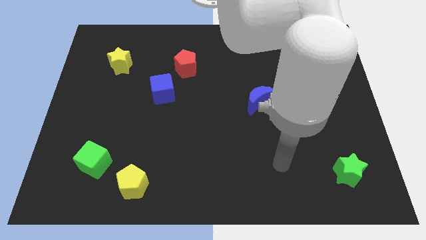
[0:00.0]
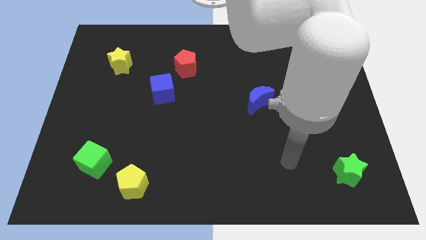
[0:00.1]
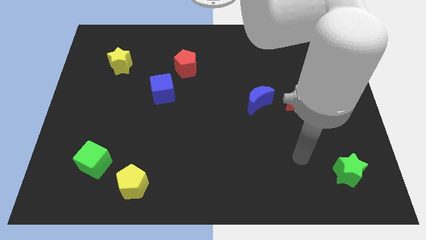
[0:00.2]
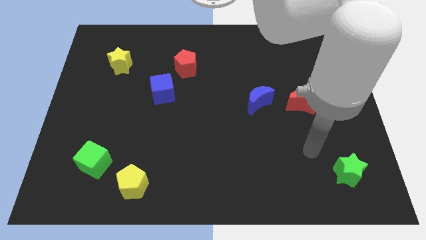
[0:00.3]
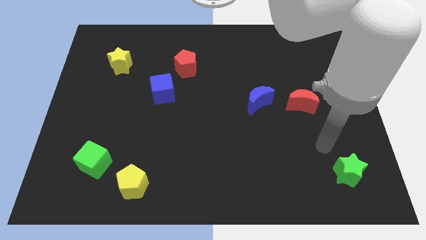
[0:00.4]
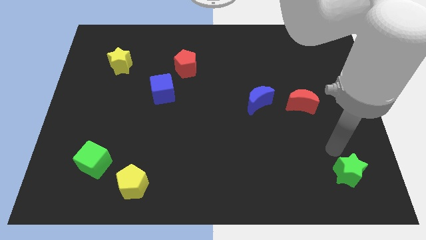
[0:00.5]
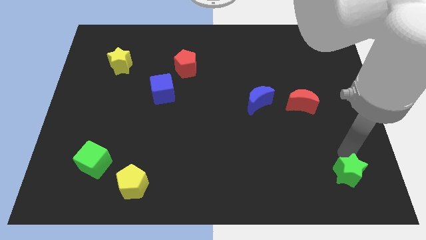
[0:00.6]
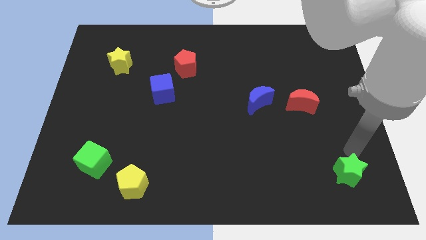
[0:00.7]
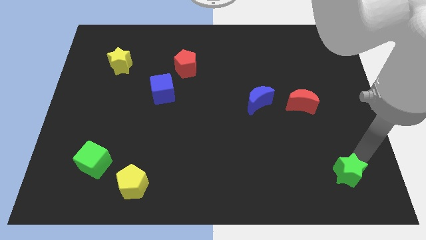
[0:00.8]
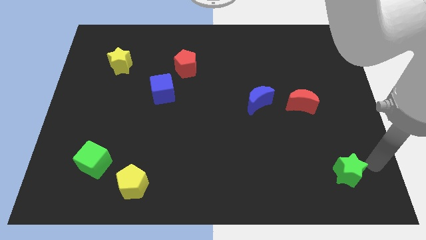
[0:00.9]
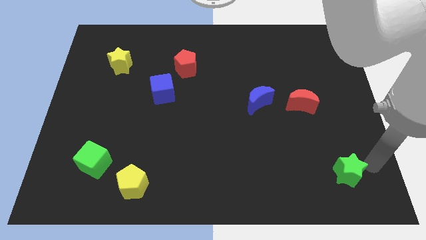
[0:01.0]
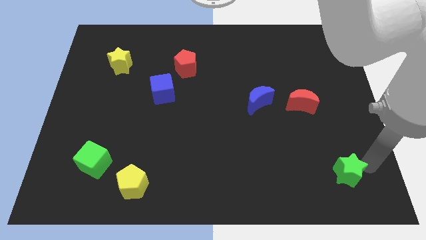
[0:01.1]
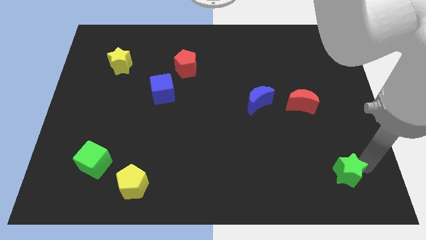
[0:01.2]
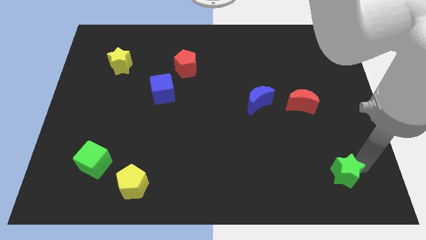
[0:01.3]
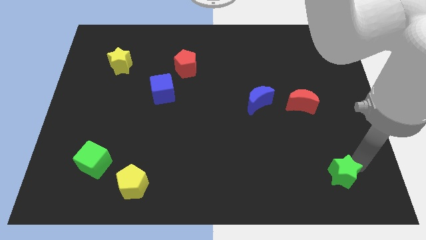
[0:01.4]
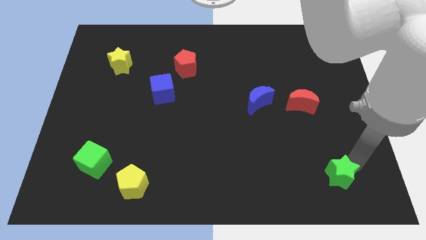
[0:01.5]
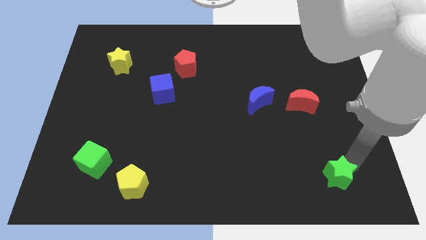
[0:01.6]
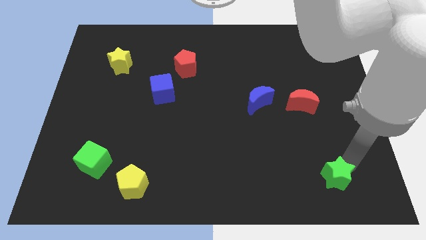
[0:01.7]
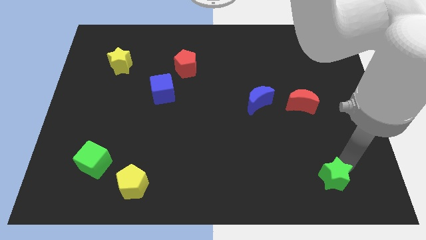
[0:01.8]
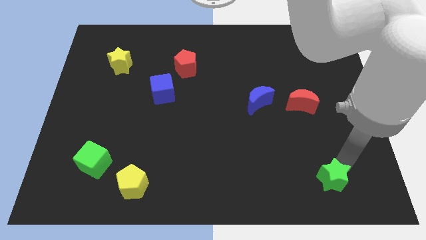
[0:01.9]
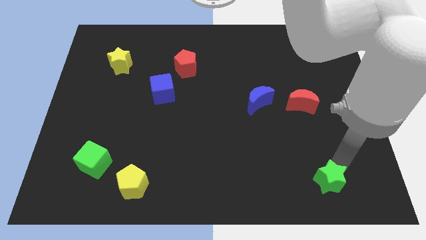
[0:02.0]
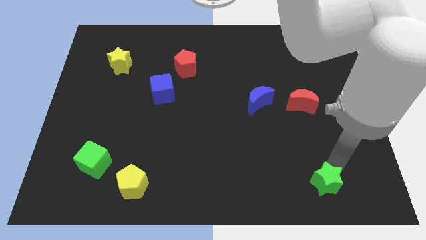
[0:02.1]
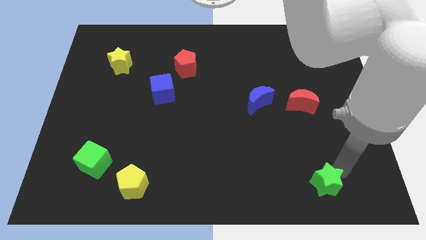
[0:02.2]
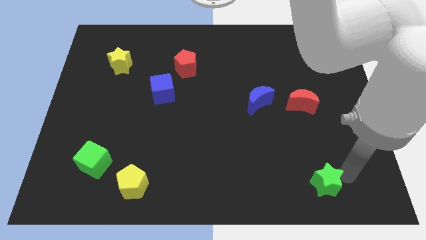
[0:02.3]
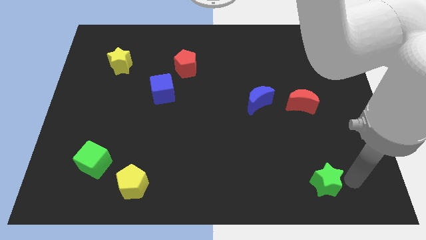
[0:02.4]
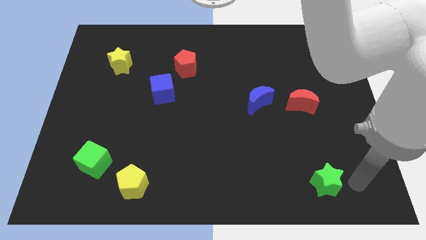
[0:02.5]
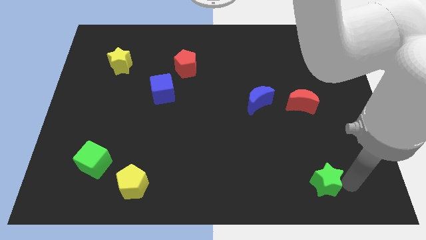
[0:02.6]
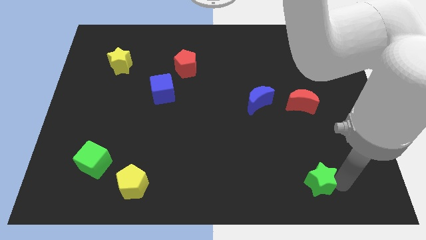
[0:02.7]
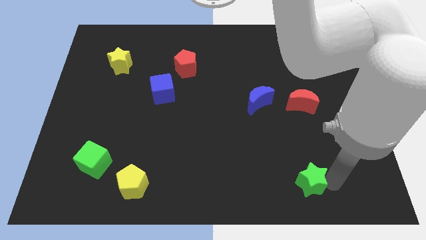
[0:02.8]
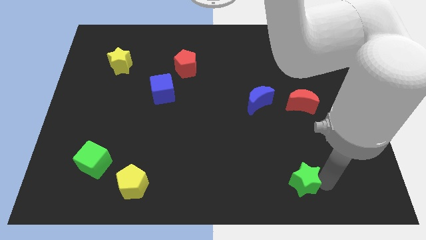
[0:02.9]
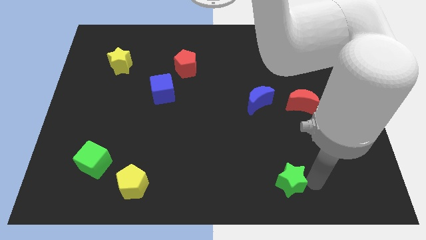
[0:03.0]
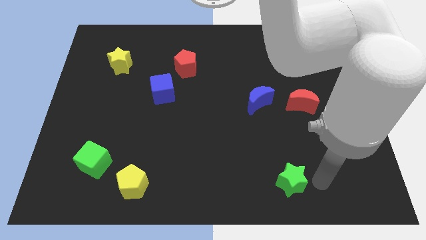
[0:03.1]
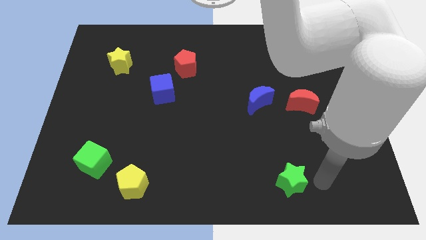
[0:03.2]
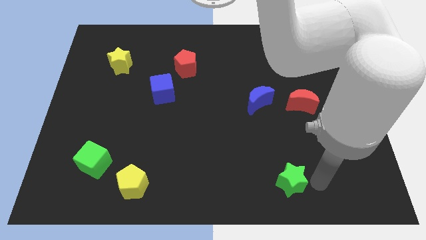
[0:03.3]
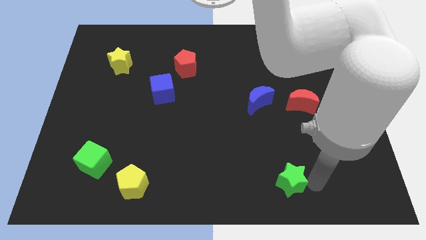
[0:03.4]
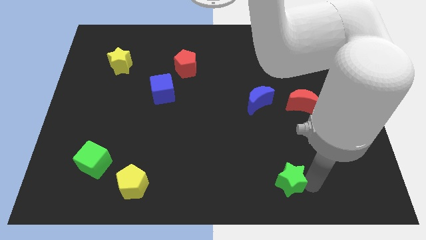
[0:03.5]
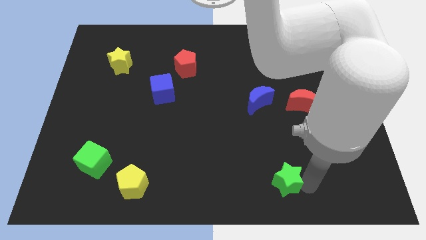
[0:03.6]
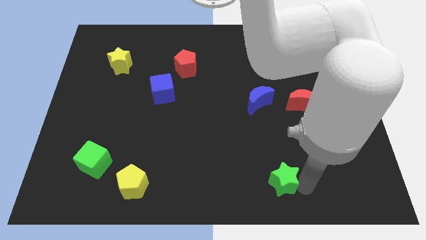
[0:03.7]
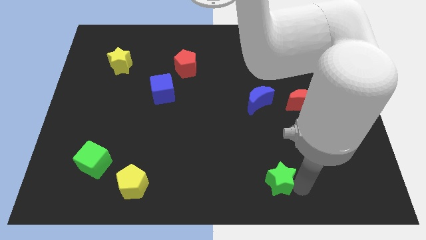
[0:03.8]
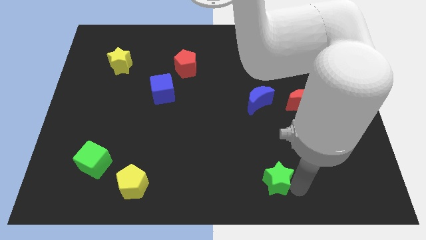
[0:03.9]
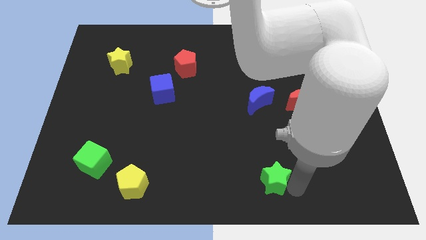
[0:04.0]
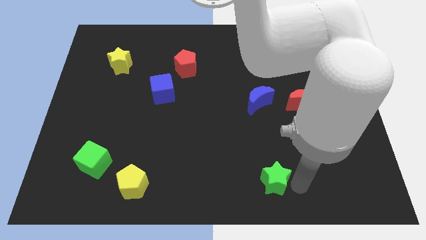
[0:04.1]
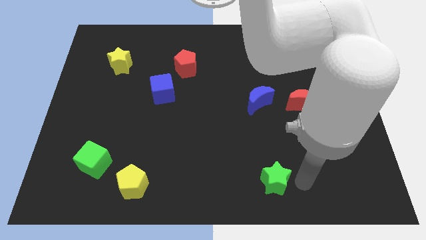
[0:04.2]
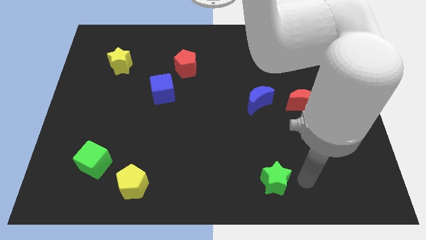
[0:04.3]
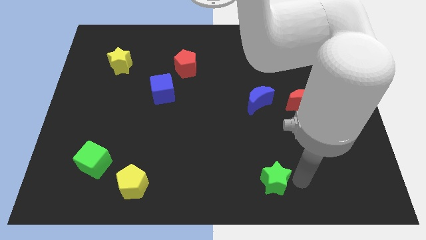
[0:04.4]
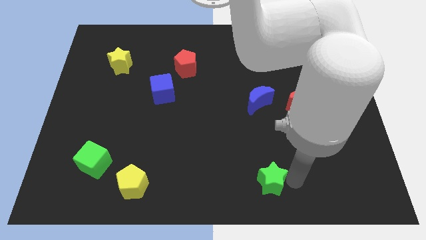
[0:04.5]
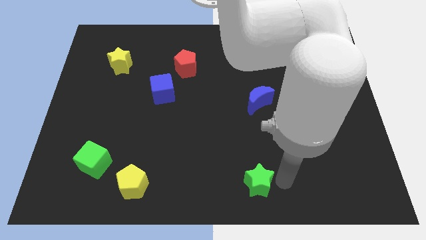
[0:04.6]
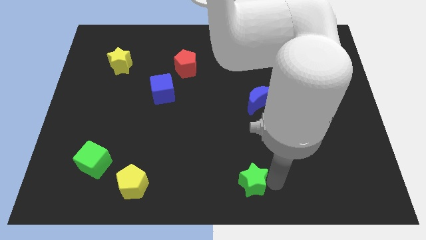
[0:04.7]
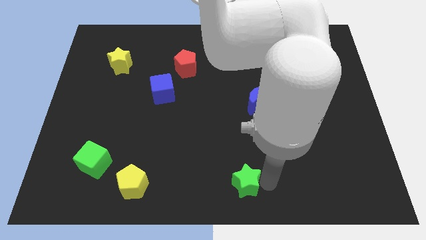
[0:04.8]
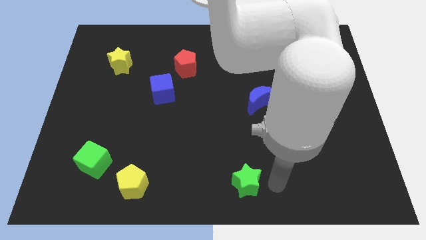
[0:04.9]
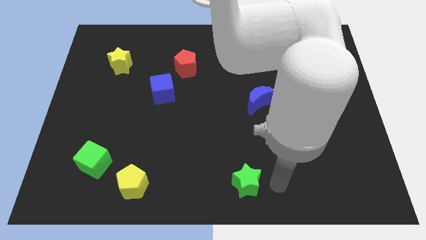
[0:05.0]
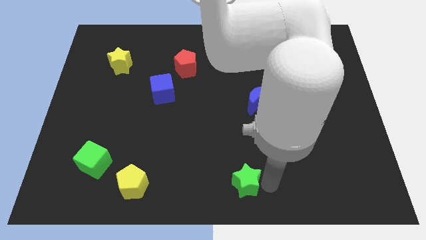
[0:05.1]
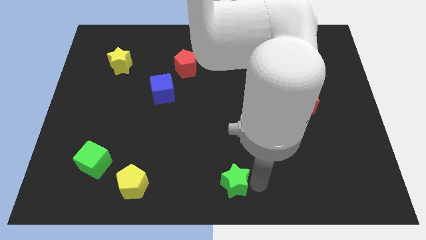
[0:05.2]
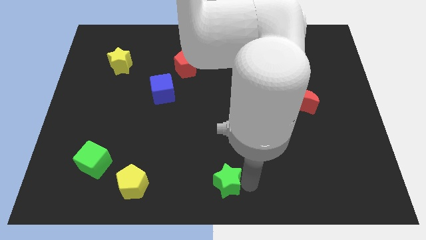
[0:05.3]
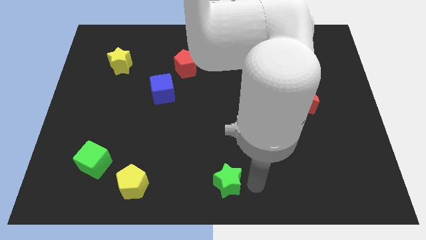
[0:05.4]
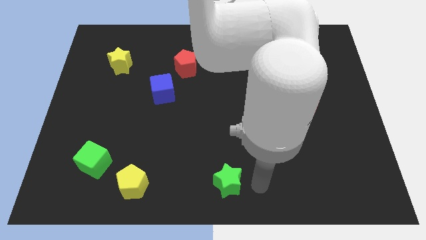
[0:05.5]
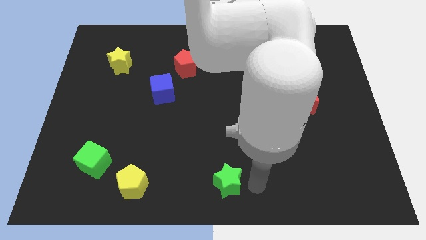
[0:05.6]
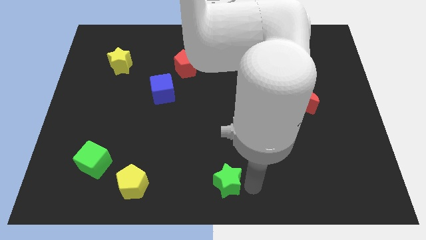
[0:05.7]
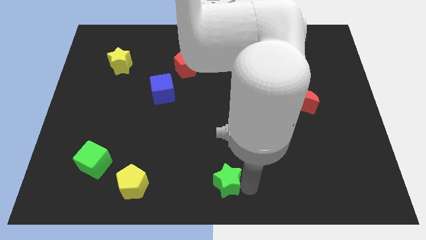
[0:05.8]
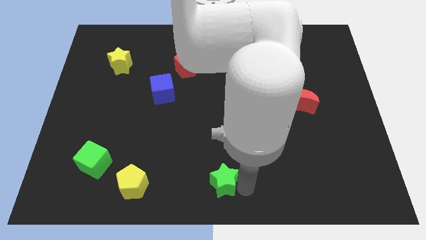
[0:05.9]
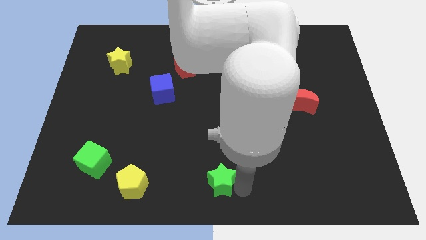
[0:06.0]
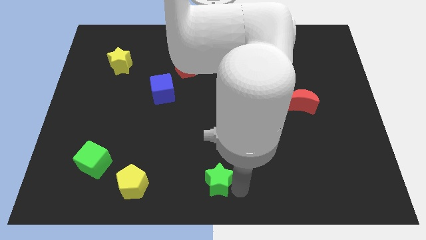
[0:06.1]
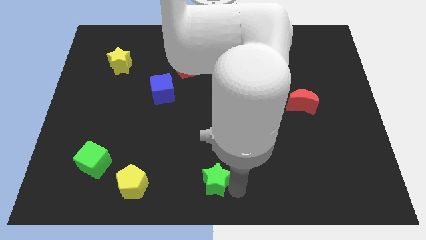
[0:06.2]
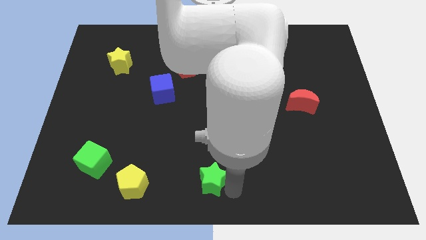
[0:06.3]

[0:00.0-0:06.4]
move the green star right of the yellow pentagon

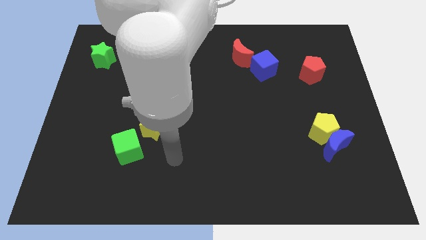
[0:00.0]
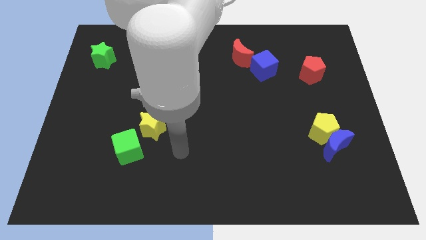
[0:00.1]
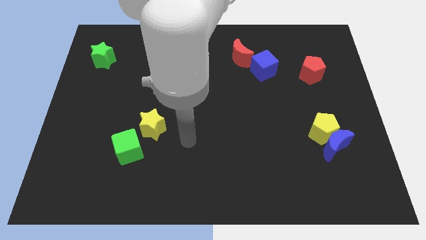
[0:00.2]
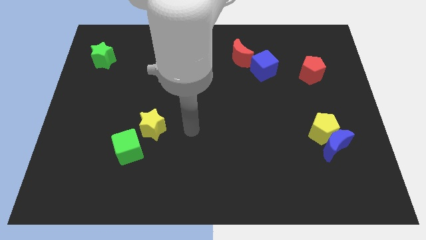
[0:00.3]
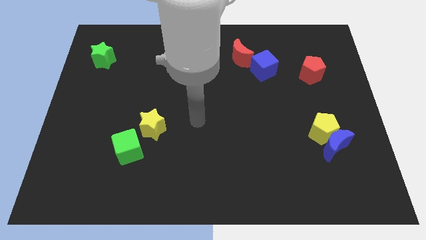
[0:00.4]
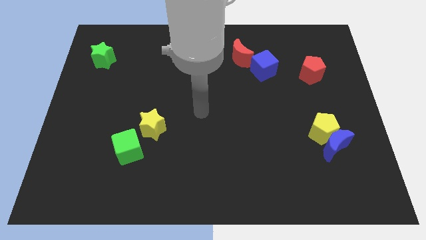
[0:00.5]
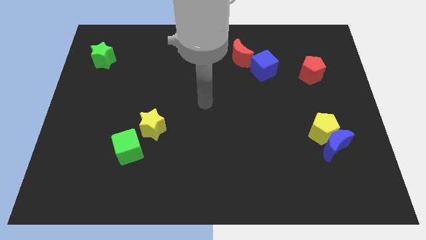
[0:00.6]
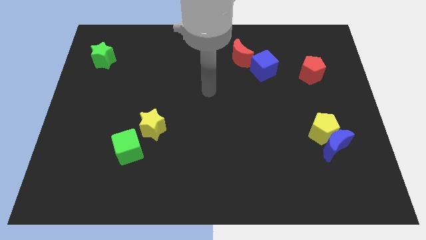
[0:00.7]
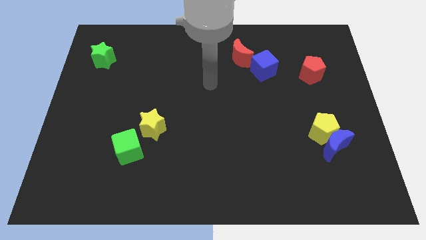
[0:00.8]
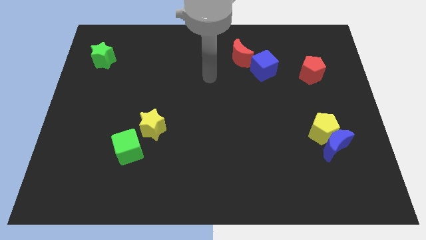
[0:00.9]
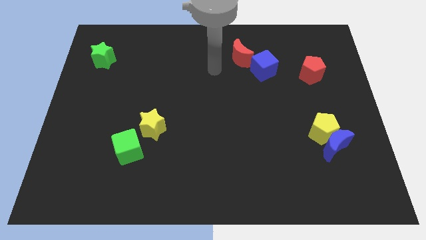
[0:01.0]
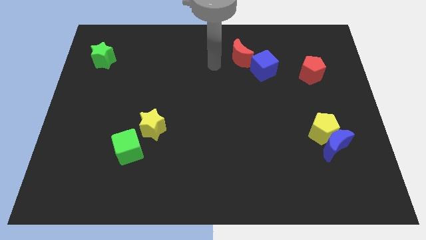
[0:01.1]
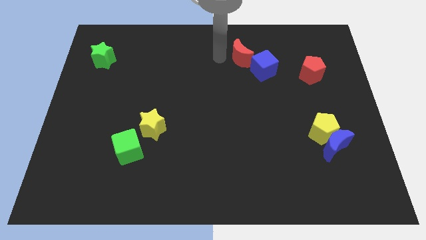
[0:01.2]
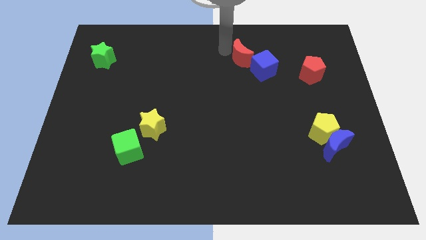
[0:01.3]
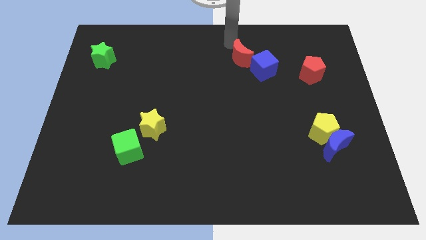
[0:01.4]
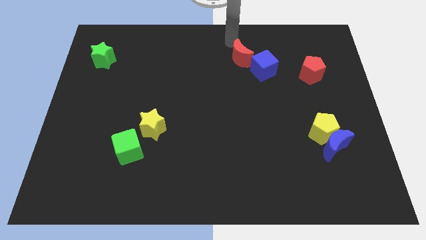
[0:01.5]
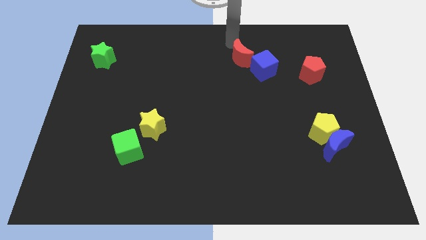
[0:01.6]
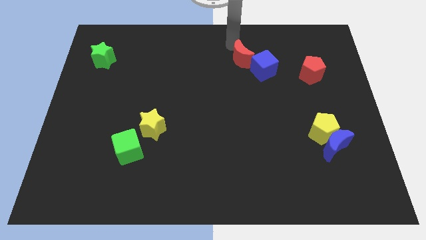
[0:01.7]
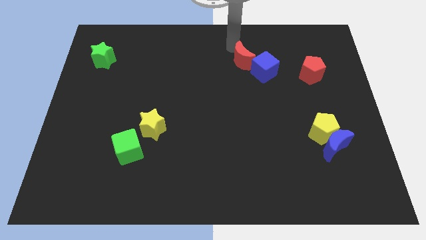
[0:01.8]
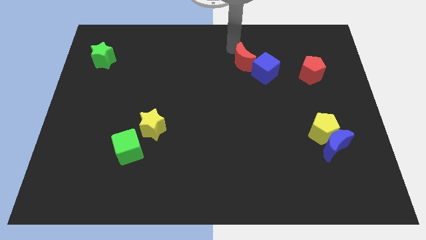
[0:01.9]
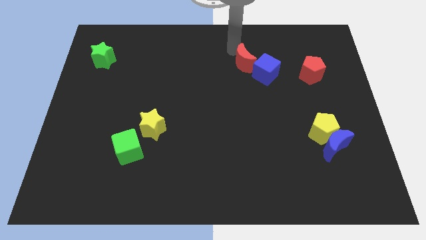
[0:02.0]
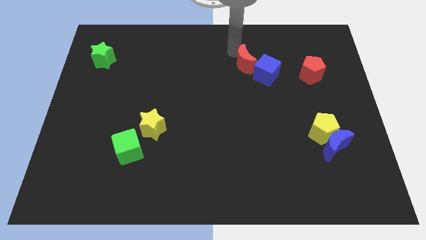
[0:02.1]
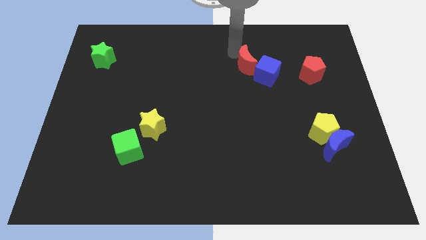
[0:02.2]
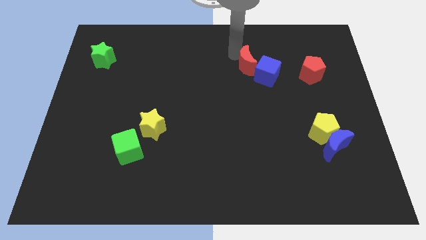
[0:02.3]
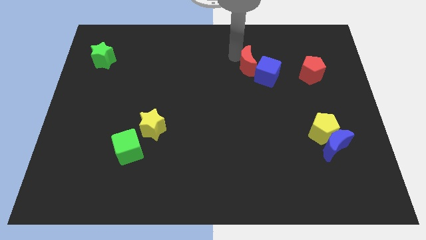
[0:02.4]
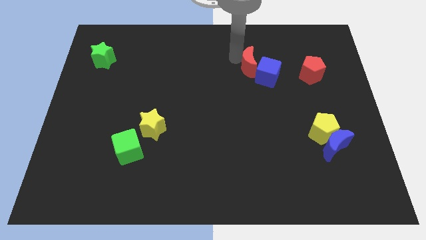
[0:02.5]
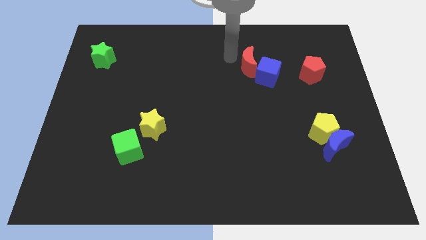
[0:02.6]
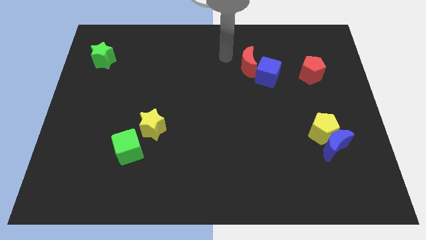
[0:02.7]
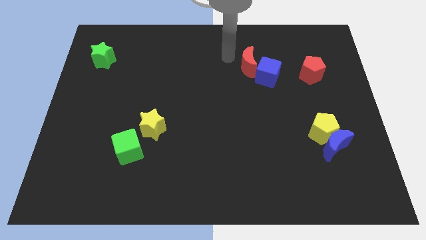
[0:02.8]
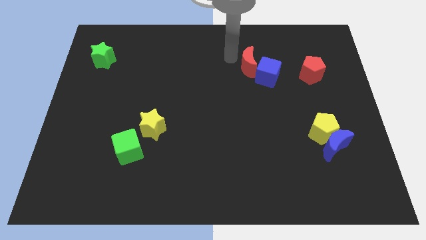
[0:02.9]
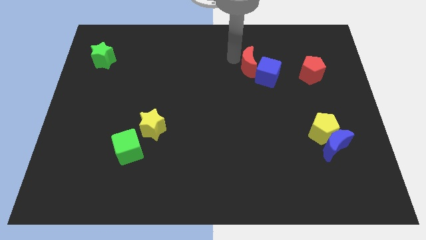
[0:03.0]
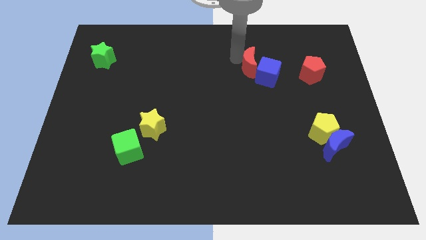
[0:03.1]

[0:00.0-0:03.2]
slide the red moon just left of the red pentagon
